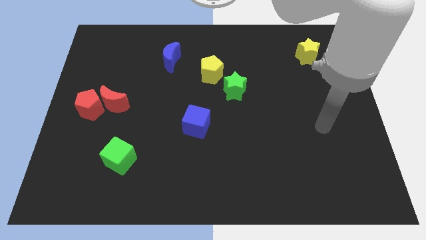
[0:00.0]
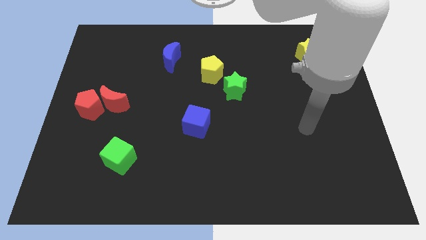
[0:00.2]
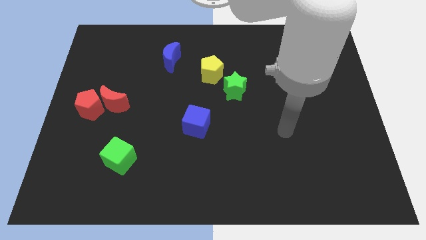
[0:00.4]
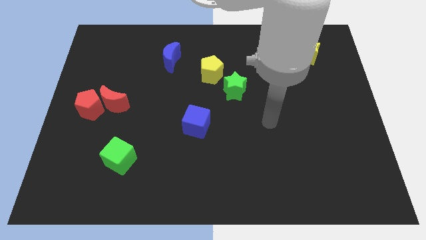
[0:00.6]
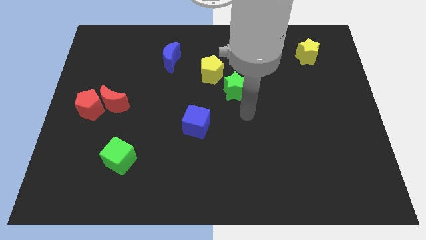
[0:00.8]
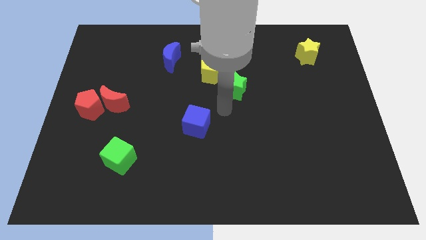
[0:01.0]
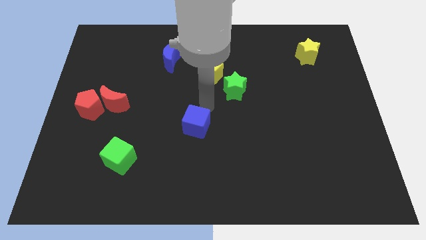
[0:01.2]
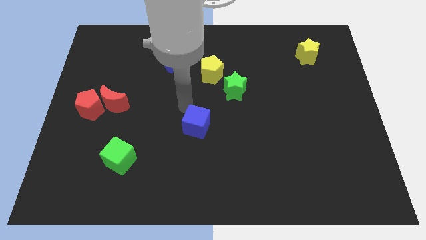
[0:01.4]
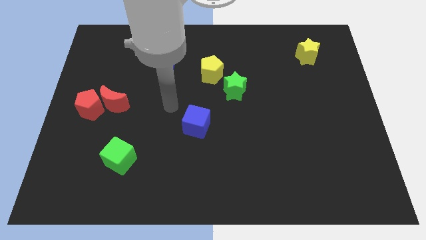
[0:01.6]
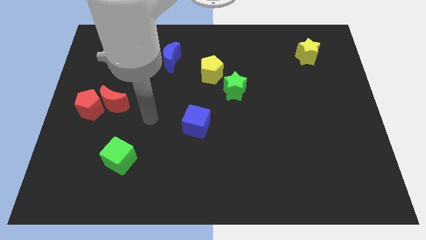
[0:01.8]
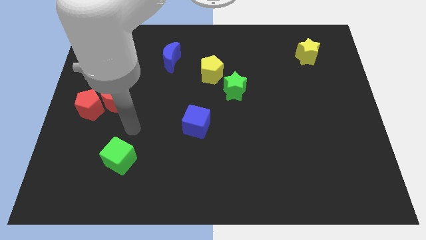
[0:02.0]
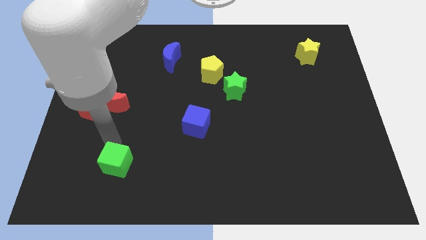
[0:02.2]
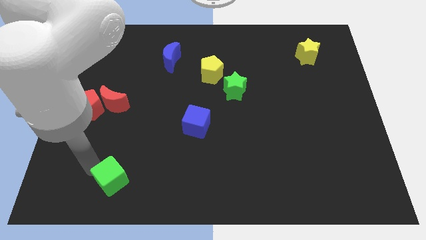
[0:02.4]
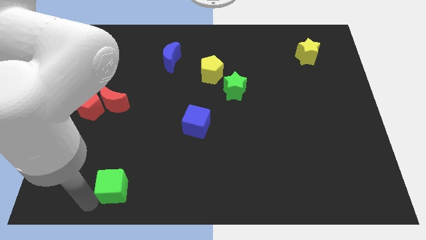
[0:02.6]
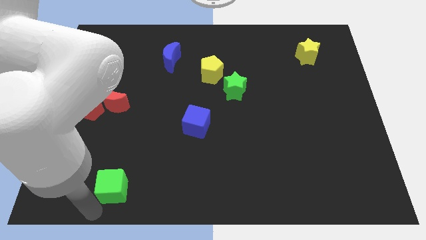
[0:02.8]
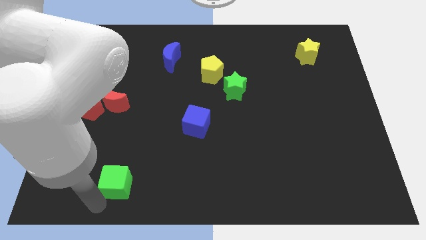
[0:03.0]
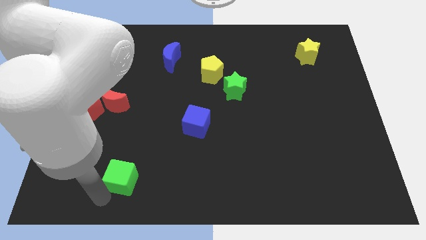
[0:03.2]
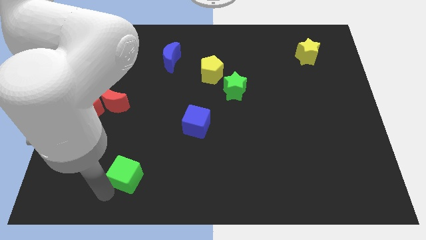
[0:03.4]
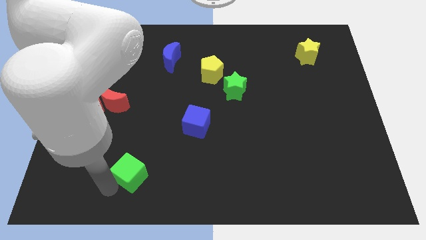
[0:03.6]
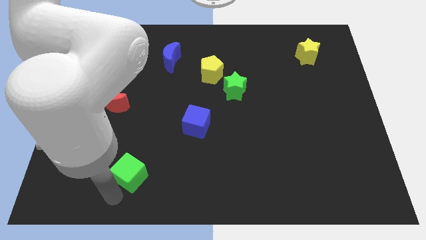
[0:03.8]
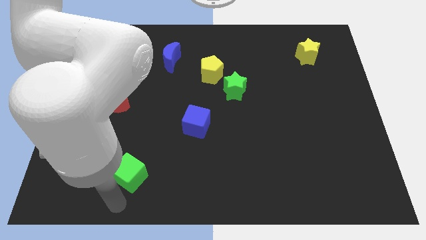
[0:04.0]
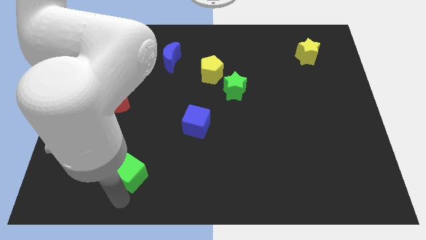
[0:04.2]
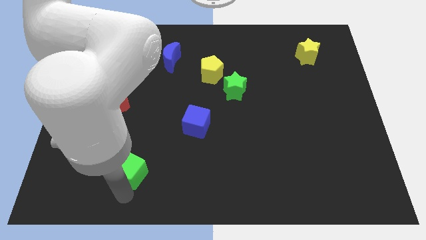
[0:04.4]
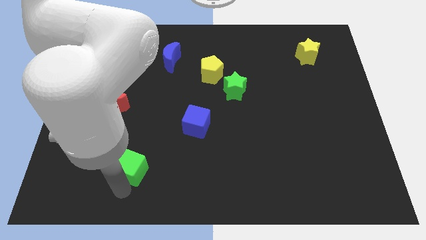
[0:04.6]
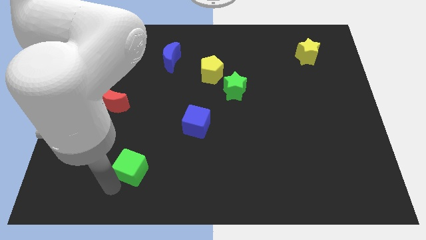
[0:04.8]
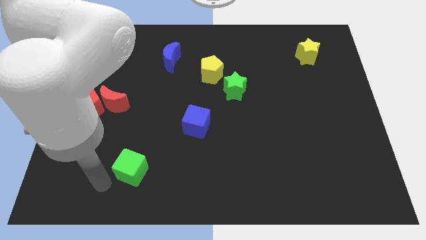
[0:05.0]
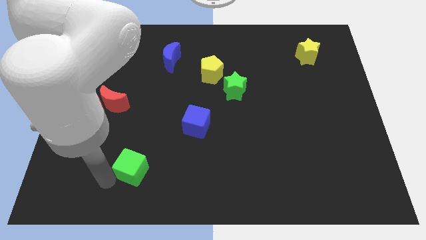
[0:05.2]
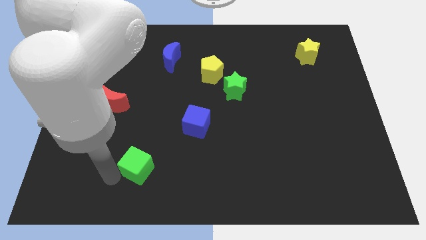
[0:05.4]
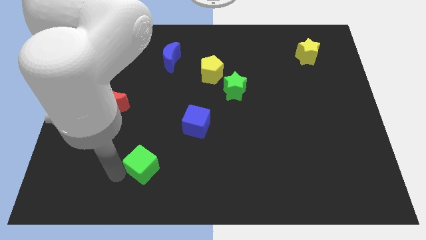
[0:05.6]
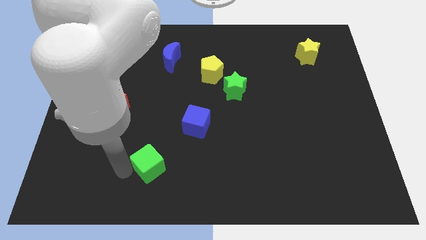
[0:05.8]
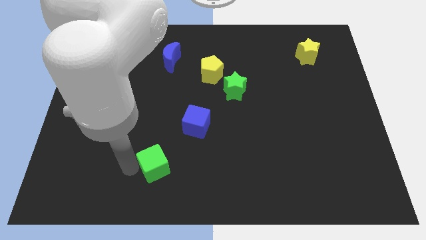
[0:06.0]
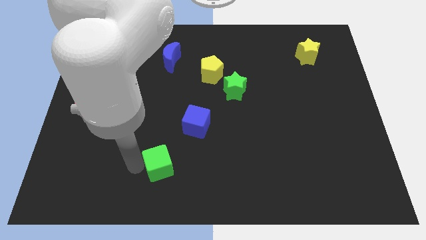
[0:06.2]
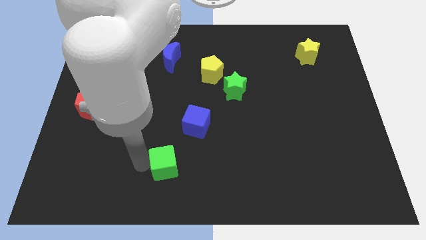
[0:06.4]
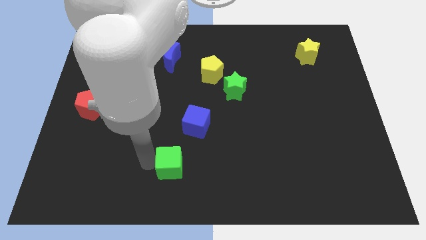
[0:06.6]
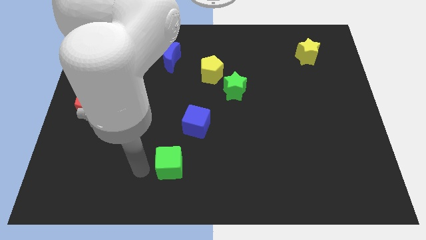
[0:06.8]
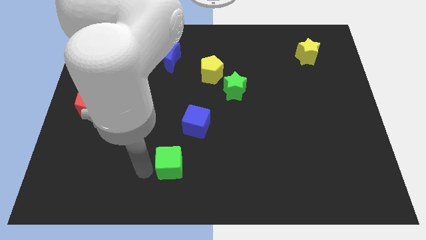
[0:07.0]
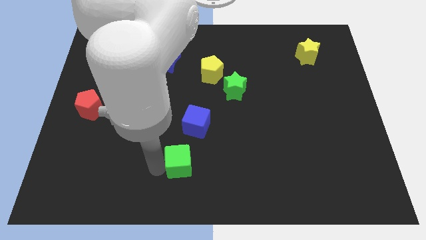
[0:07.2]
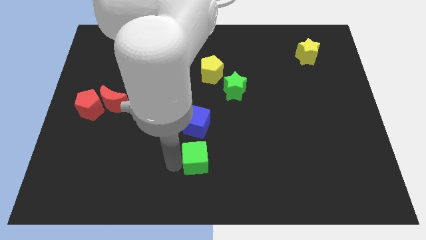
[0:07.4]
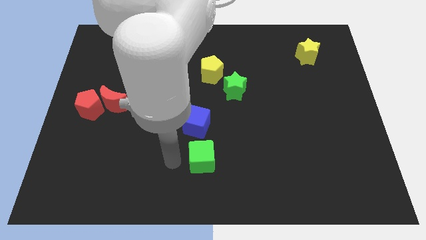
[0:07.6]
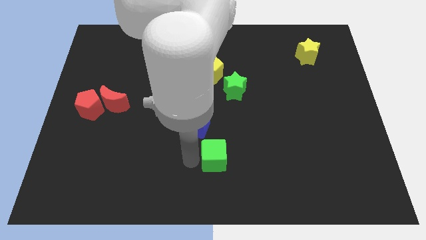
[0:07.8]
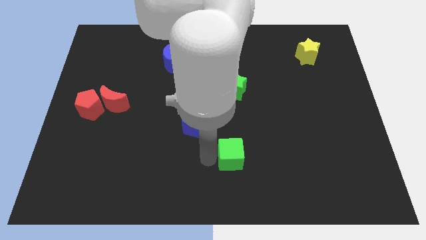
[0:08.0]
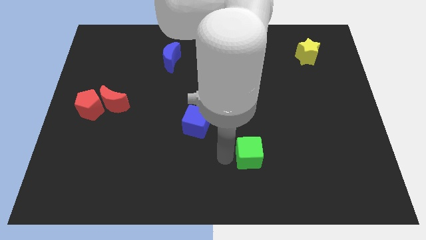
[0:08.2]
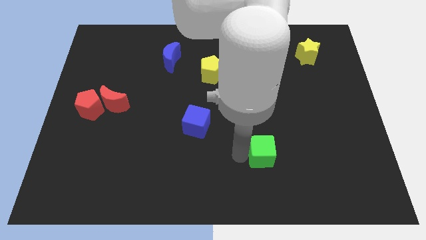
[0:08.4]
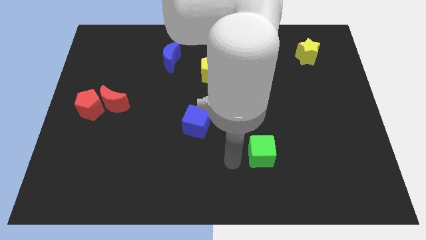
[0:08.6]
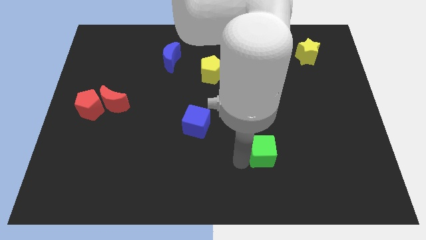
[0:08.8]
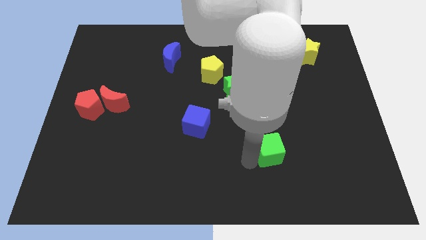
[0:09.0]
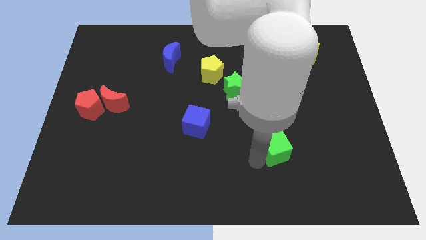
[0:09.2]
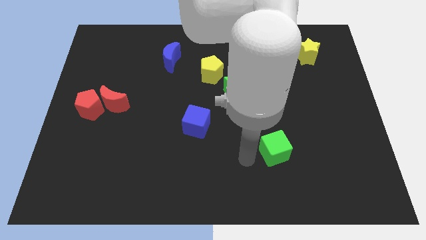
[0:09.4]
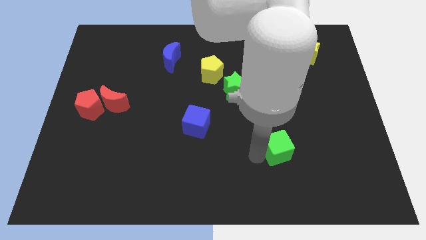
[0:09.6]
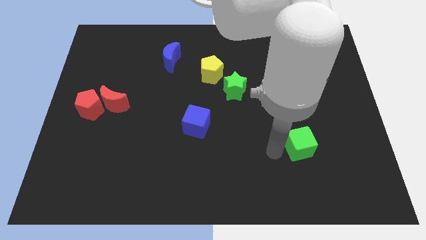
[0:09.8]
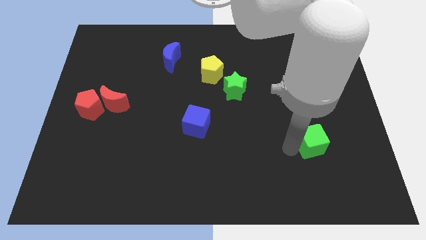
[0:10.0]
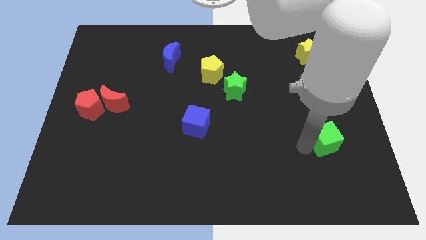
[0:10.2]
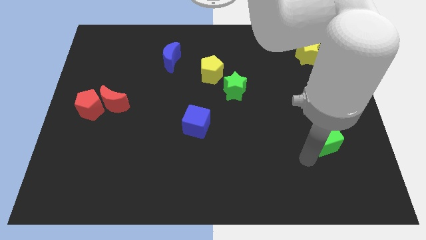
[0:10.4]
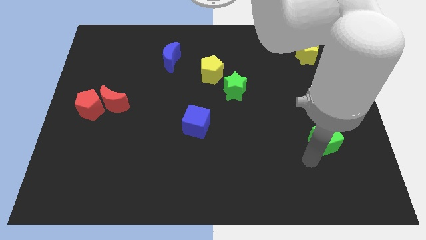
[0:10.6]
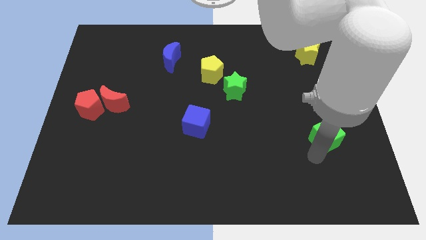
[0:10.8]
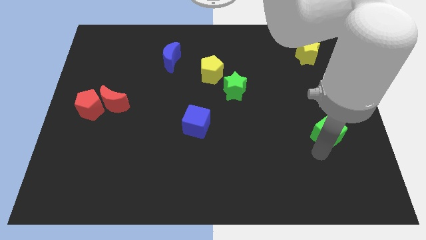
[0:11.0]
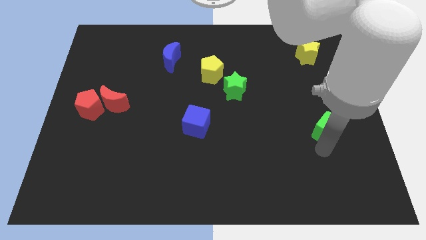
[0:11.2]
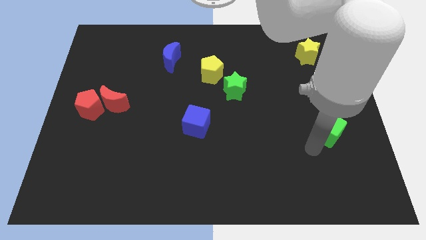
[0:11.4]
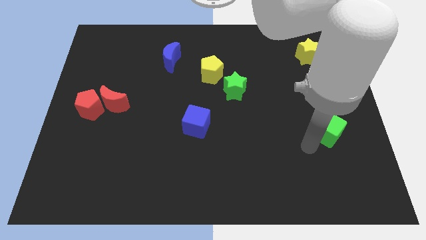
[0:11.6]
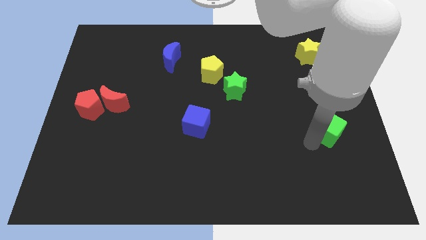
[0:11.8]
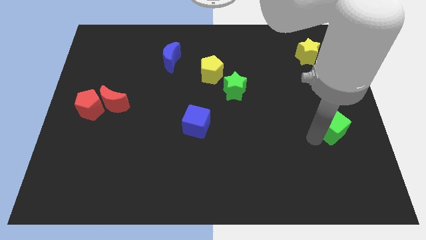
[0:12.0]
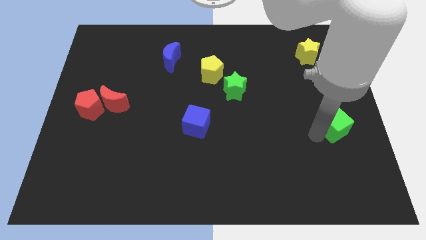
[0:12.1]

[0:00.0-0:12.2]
slide the green cube to the right side

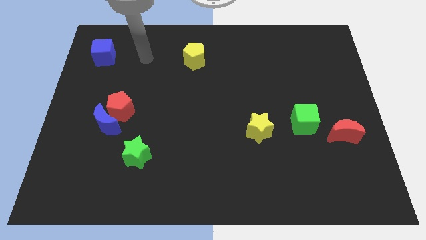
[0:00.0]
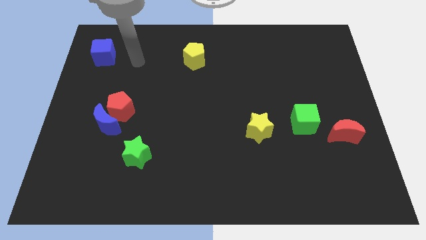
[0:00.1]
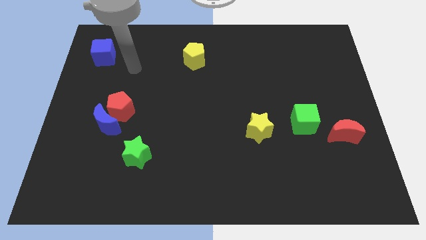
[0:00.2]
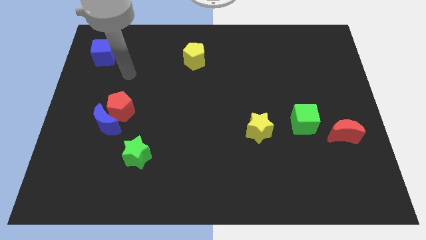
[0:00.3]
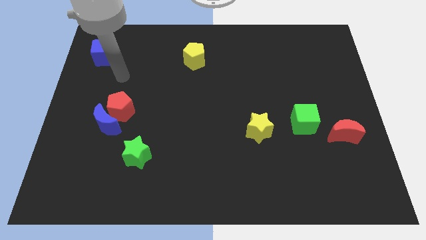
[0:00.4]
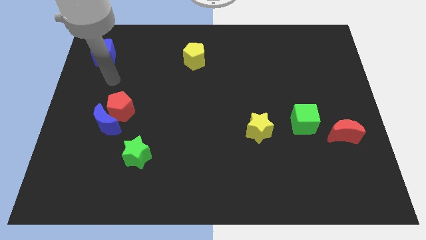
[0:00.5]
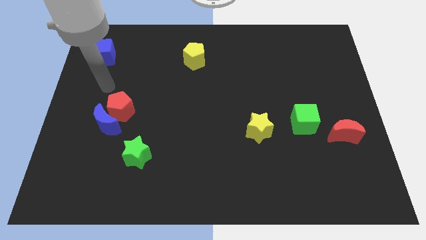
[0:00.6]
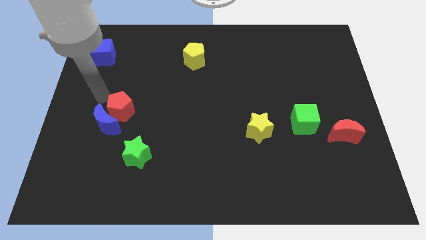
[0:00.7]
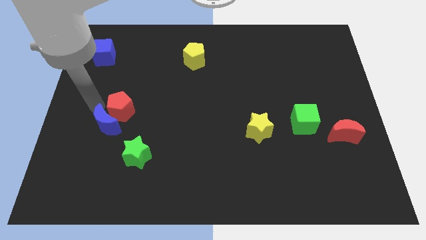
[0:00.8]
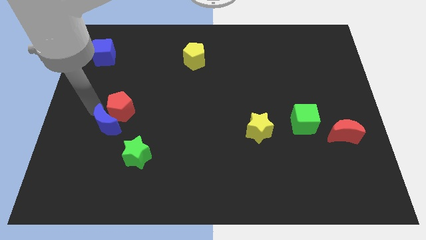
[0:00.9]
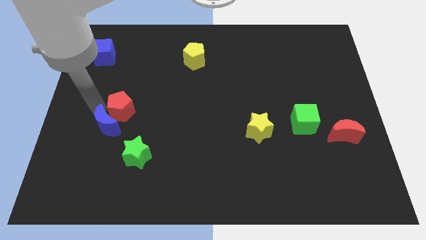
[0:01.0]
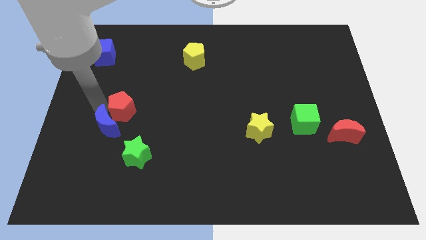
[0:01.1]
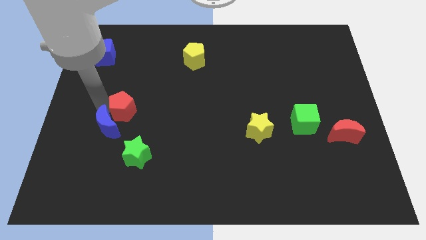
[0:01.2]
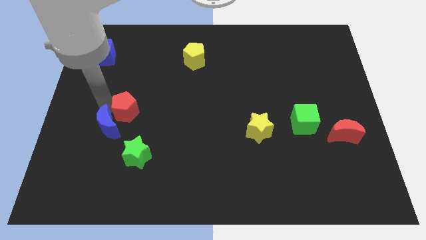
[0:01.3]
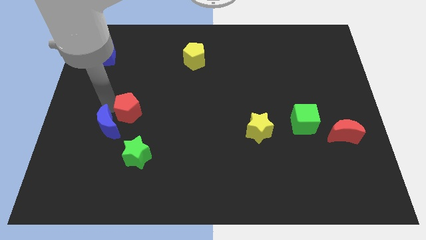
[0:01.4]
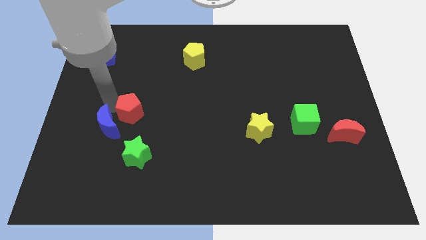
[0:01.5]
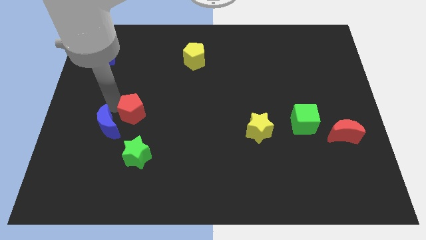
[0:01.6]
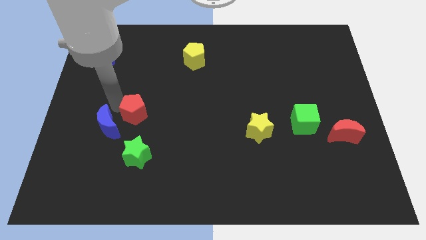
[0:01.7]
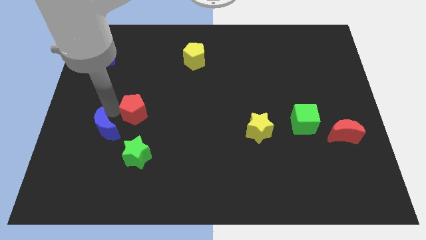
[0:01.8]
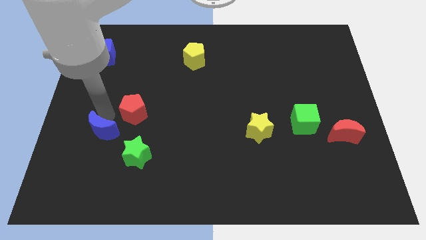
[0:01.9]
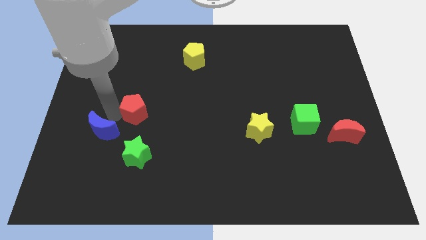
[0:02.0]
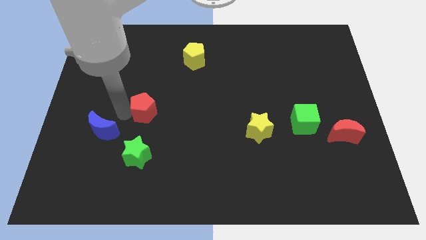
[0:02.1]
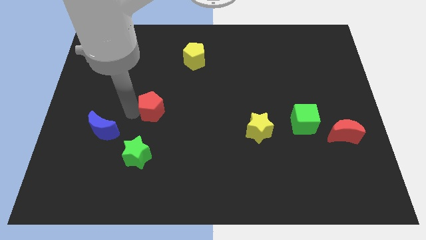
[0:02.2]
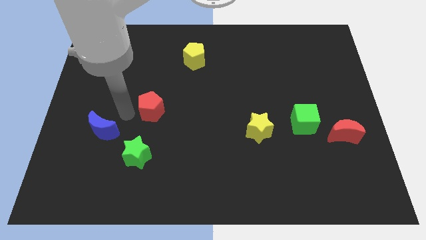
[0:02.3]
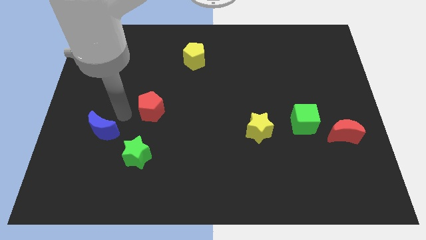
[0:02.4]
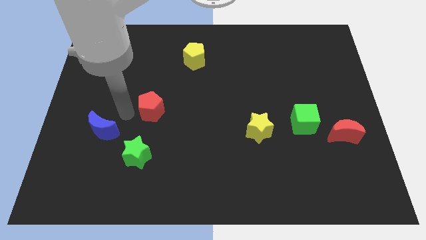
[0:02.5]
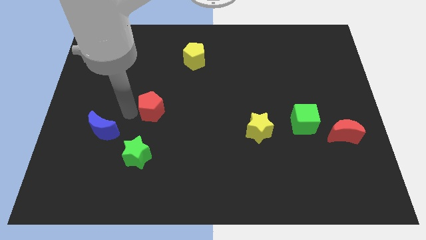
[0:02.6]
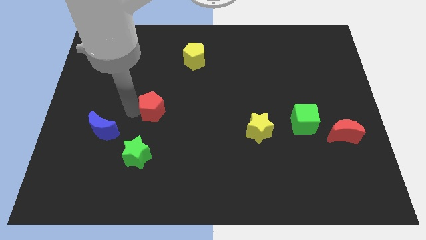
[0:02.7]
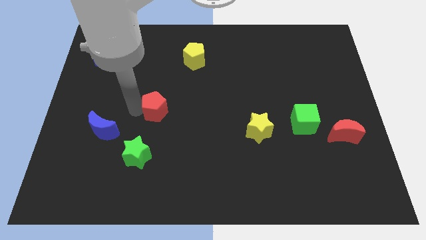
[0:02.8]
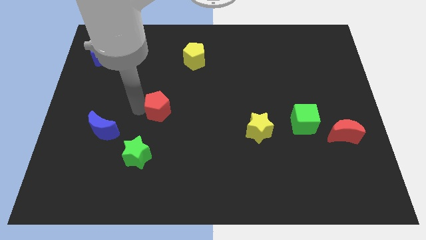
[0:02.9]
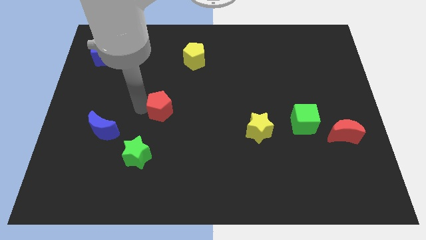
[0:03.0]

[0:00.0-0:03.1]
push the red pentagon to the middle of the board
